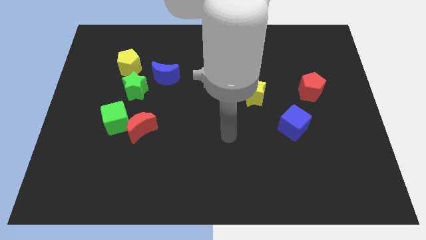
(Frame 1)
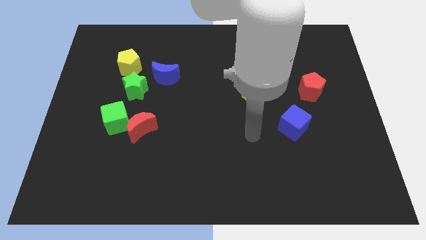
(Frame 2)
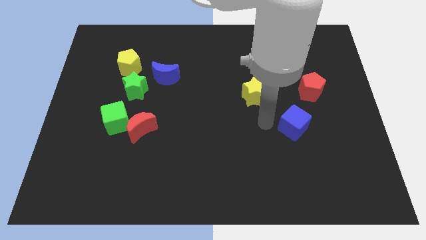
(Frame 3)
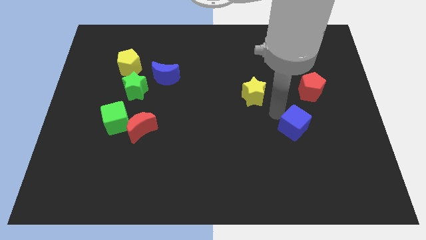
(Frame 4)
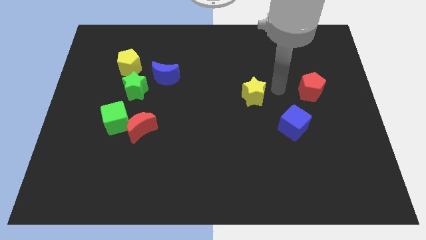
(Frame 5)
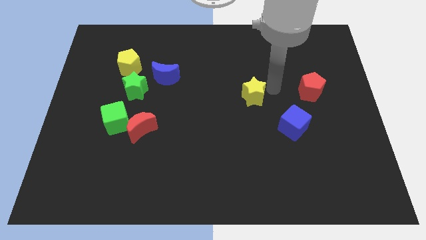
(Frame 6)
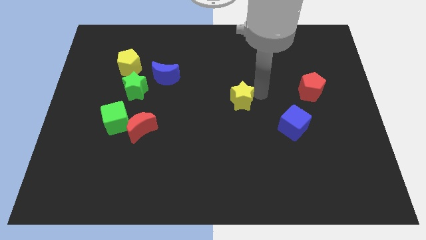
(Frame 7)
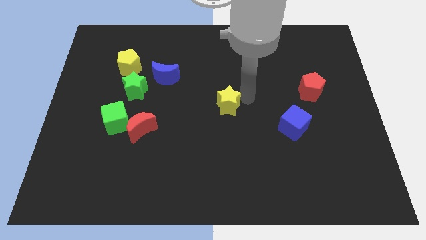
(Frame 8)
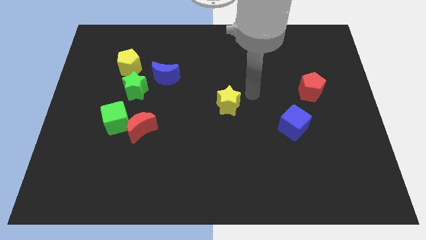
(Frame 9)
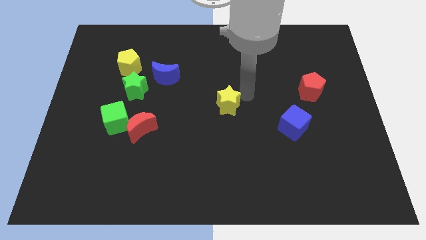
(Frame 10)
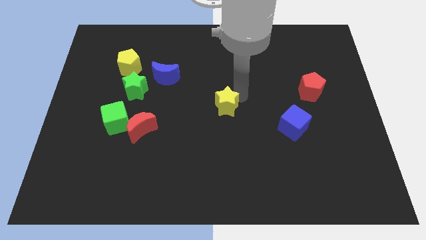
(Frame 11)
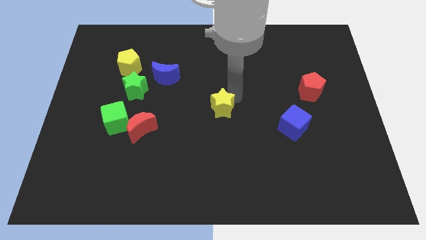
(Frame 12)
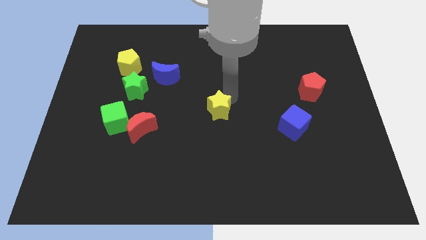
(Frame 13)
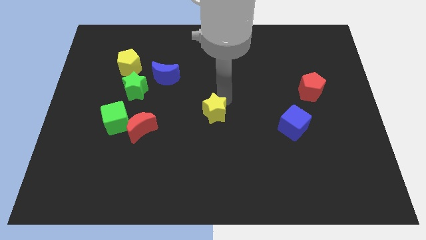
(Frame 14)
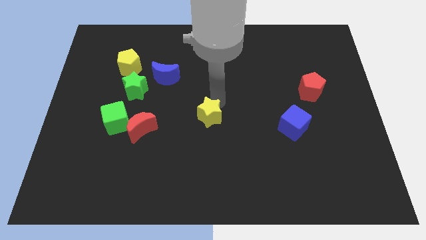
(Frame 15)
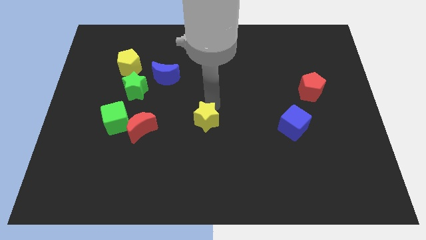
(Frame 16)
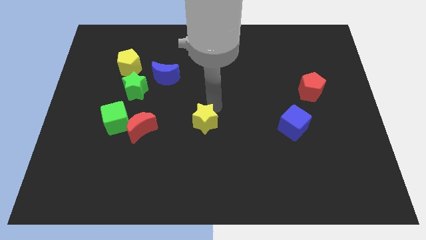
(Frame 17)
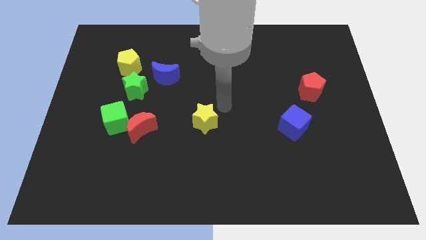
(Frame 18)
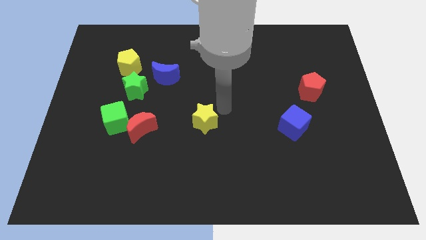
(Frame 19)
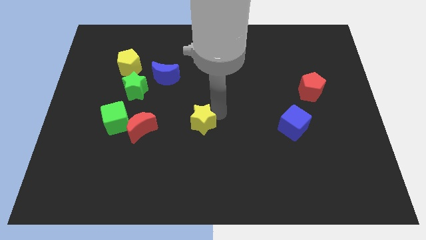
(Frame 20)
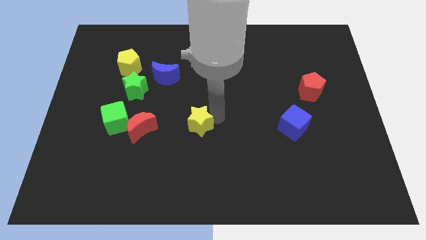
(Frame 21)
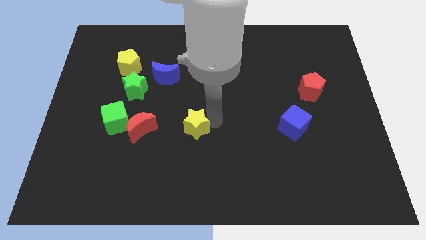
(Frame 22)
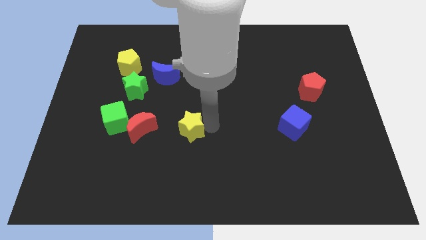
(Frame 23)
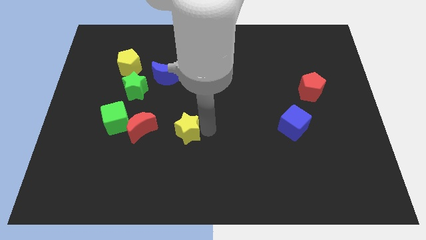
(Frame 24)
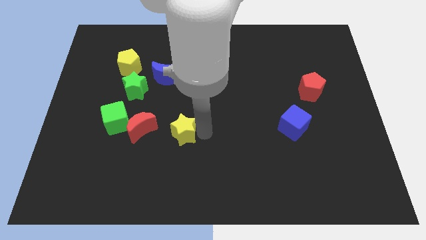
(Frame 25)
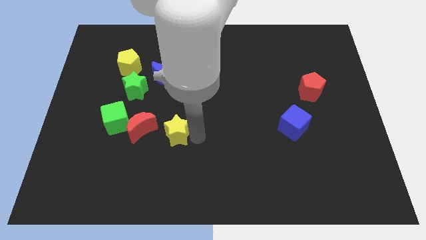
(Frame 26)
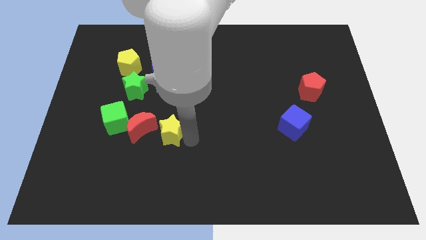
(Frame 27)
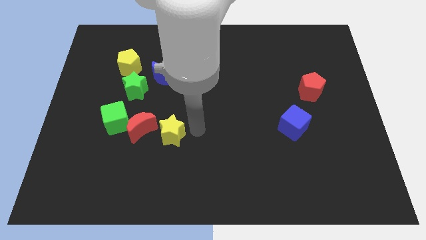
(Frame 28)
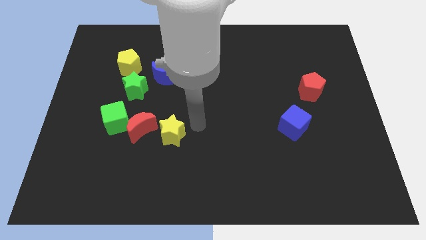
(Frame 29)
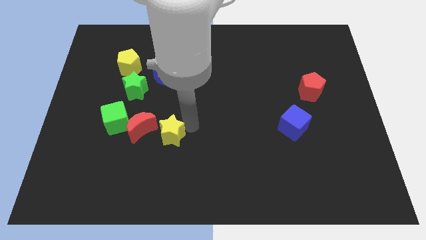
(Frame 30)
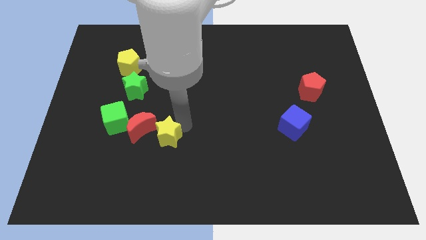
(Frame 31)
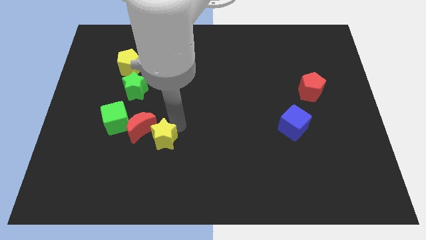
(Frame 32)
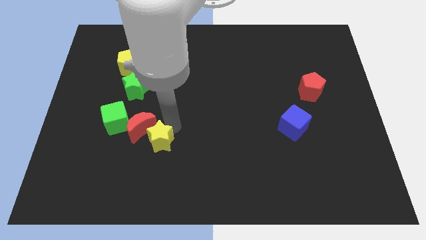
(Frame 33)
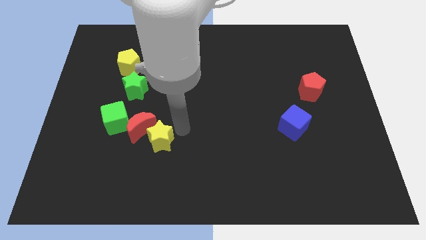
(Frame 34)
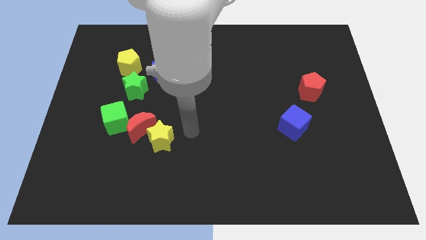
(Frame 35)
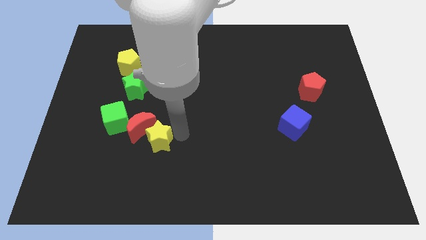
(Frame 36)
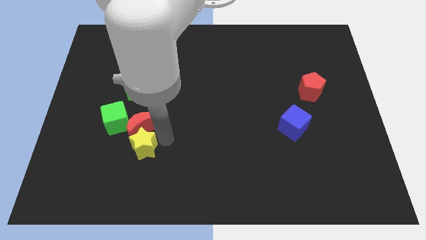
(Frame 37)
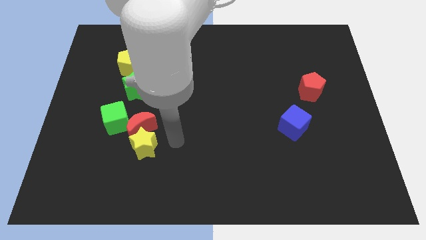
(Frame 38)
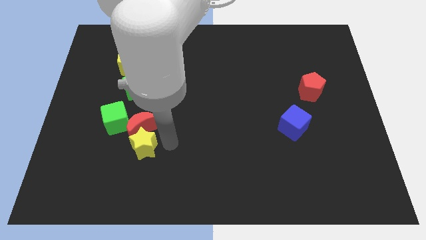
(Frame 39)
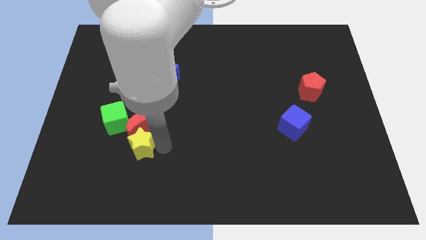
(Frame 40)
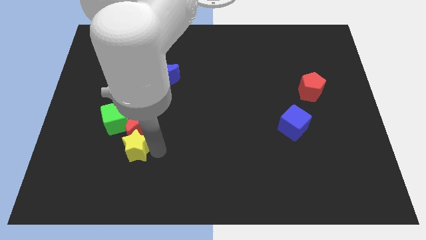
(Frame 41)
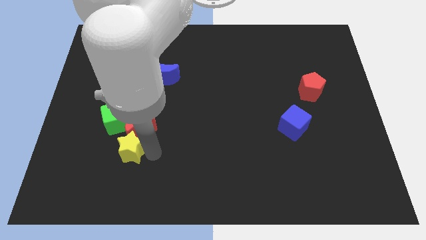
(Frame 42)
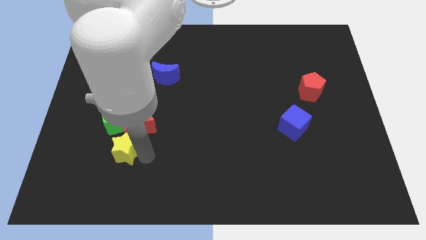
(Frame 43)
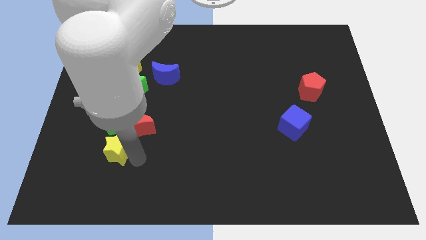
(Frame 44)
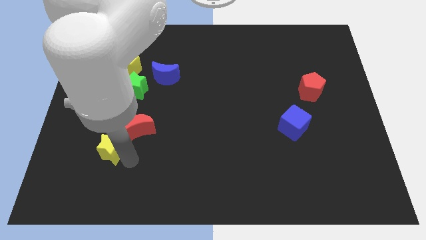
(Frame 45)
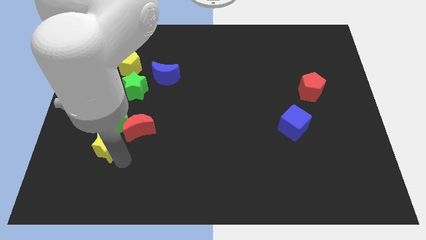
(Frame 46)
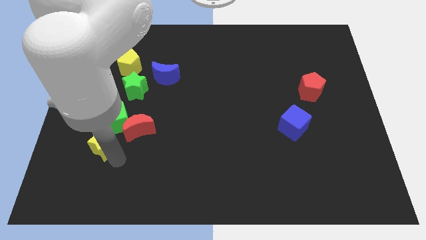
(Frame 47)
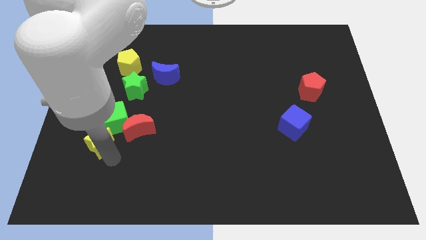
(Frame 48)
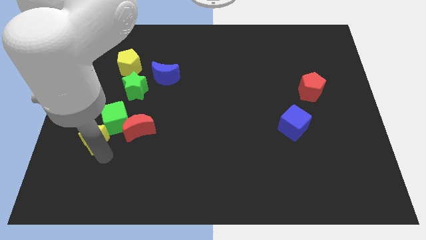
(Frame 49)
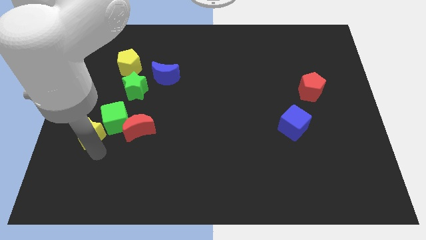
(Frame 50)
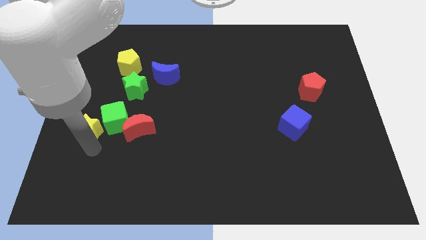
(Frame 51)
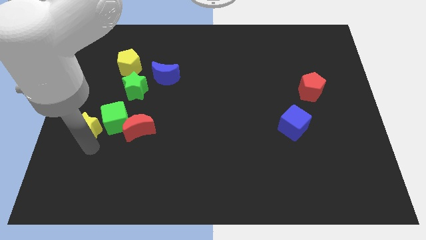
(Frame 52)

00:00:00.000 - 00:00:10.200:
put the yellow star to the left side

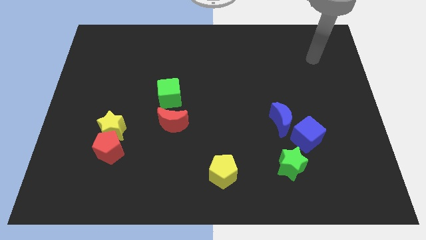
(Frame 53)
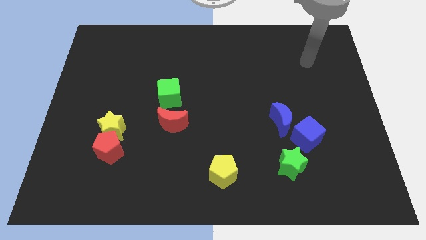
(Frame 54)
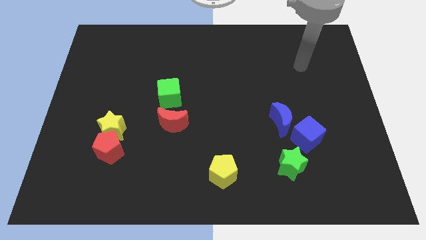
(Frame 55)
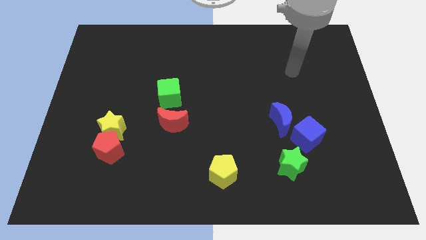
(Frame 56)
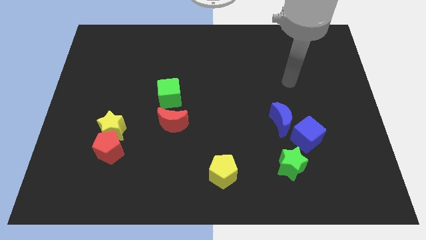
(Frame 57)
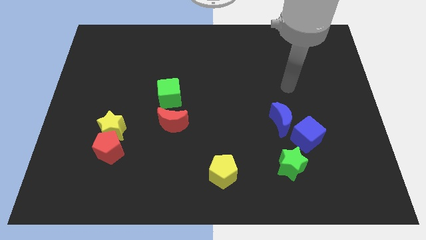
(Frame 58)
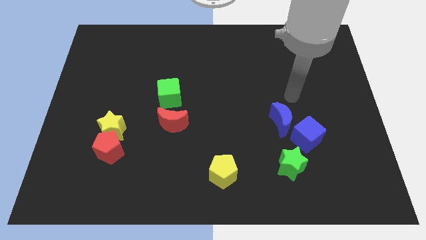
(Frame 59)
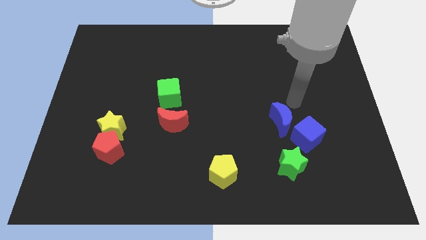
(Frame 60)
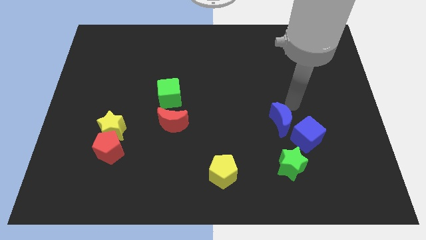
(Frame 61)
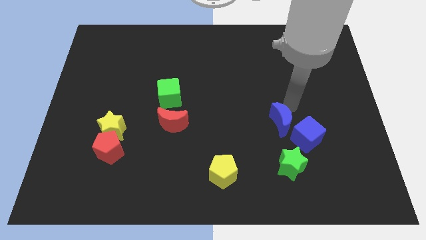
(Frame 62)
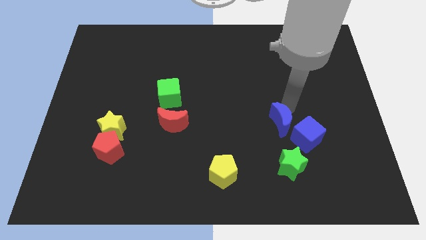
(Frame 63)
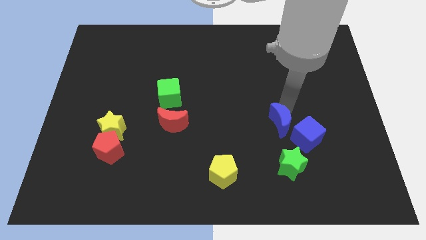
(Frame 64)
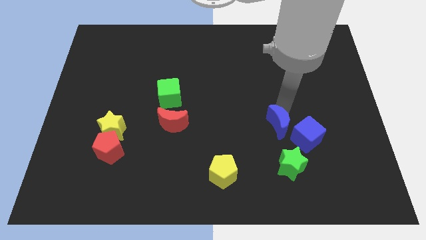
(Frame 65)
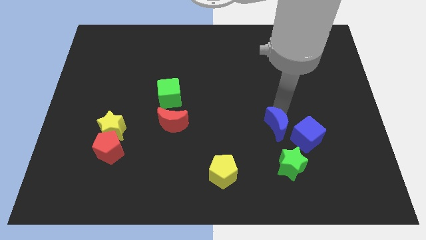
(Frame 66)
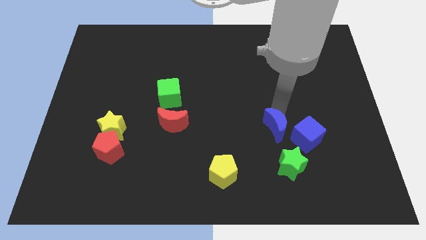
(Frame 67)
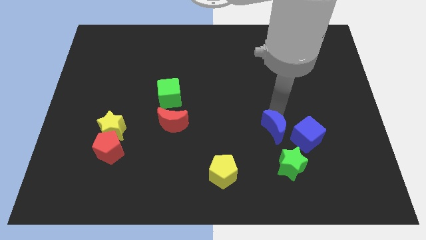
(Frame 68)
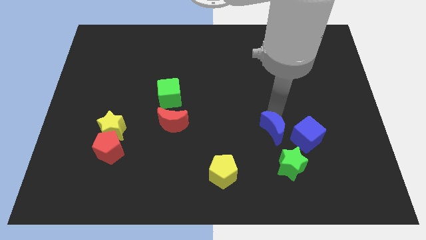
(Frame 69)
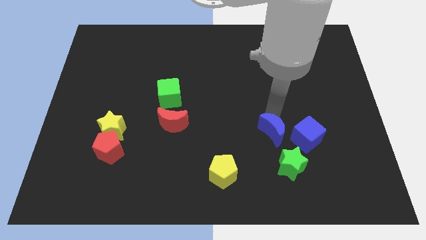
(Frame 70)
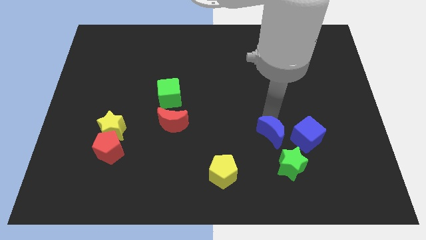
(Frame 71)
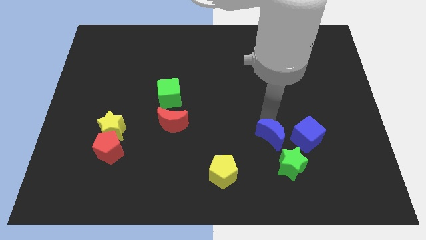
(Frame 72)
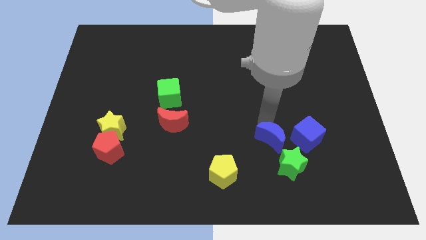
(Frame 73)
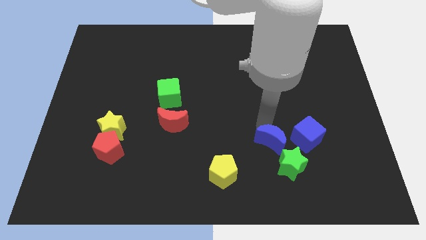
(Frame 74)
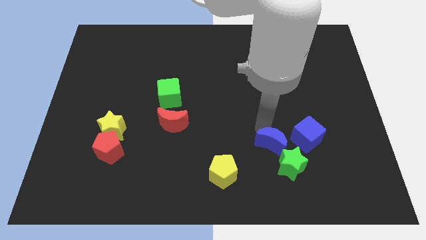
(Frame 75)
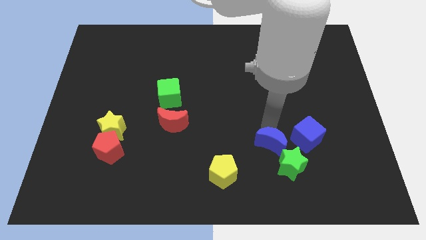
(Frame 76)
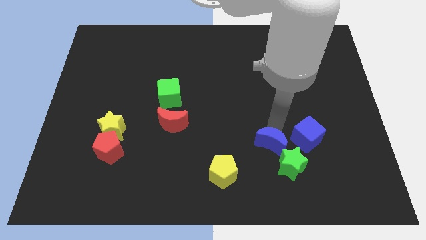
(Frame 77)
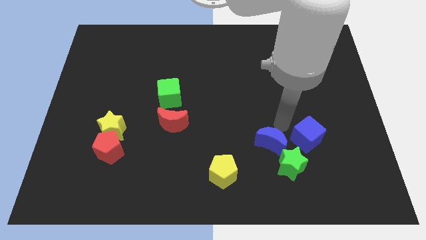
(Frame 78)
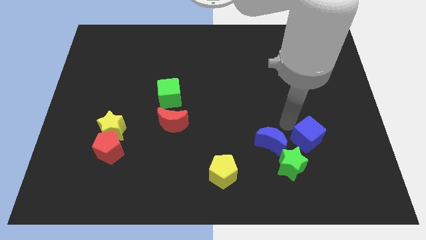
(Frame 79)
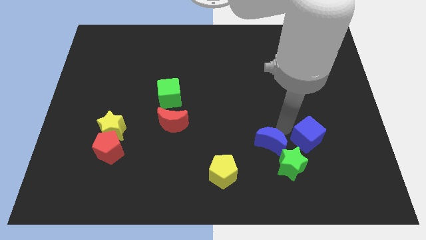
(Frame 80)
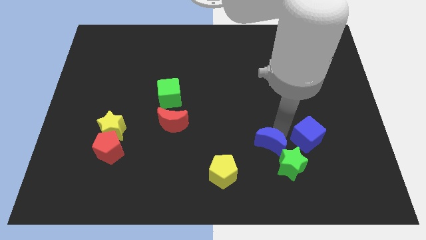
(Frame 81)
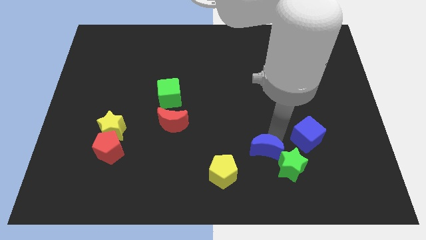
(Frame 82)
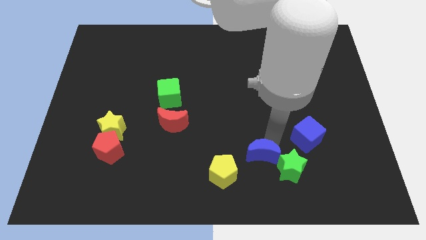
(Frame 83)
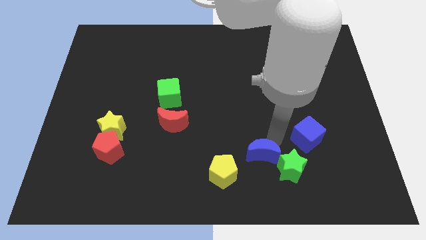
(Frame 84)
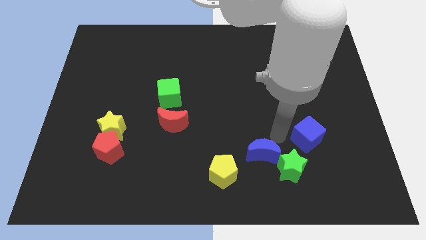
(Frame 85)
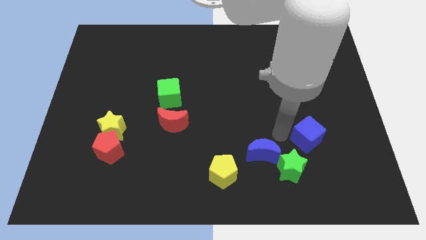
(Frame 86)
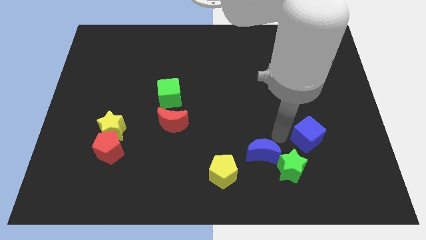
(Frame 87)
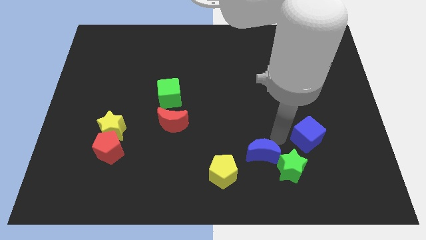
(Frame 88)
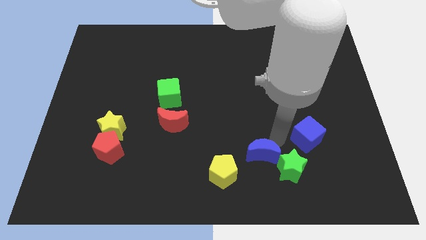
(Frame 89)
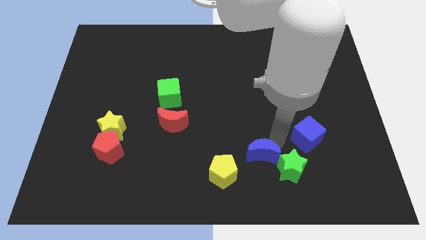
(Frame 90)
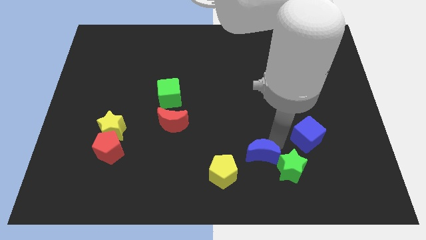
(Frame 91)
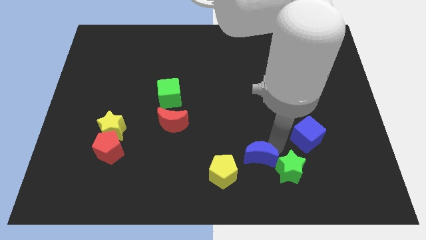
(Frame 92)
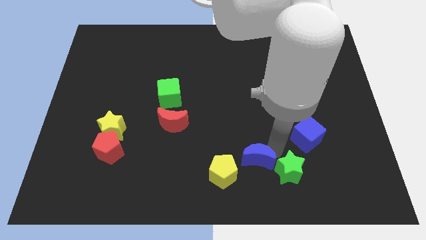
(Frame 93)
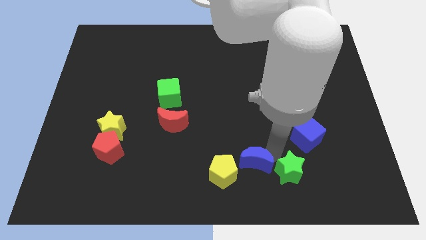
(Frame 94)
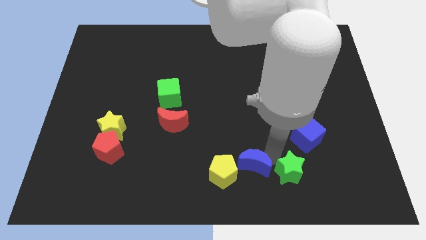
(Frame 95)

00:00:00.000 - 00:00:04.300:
move the blue moon to the bottom
